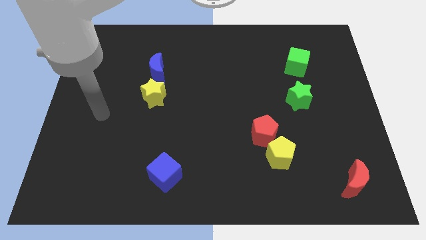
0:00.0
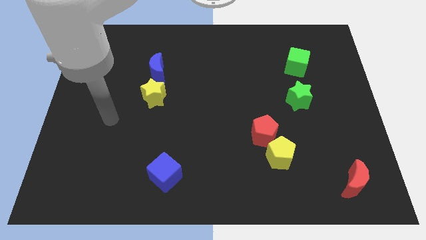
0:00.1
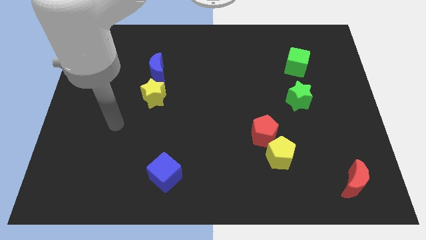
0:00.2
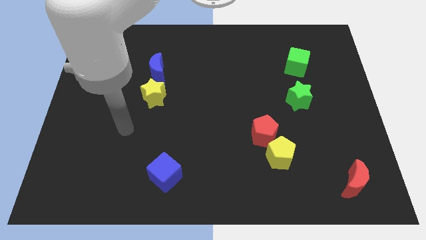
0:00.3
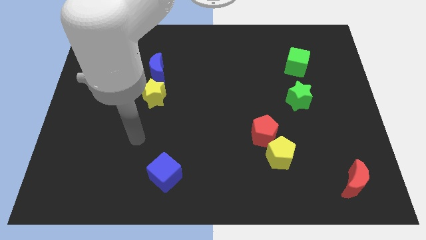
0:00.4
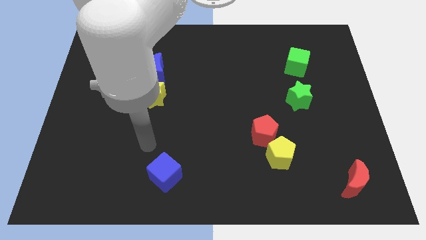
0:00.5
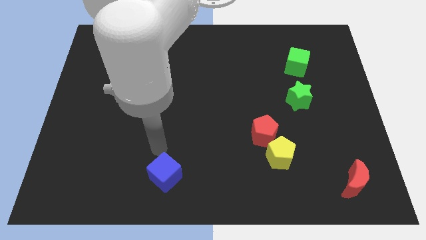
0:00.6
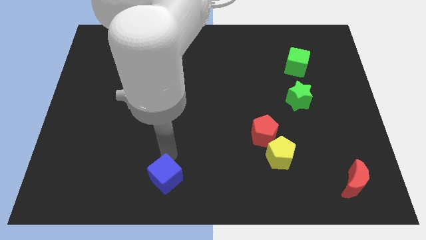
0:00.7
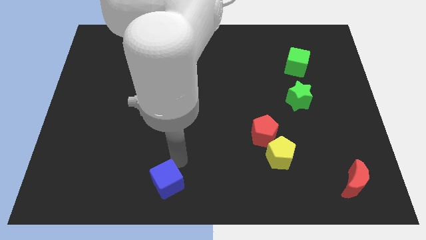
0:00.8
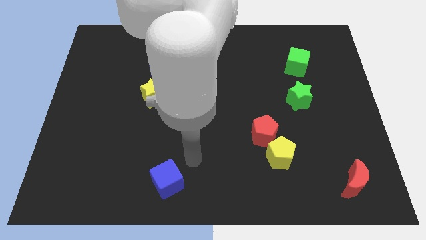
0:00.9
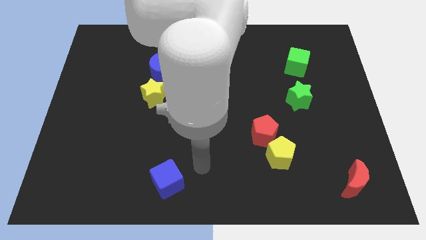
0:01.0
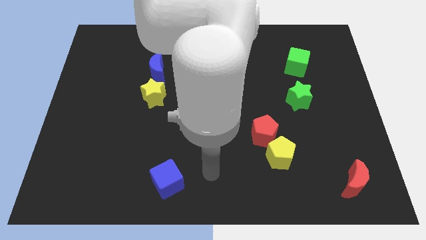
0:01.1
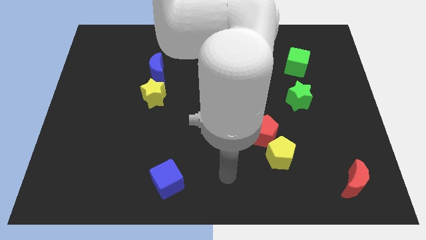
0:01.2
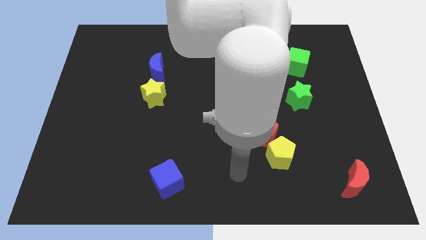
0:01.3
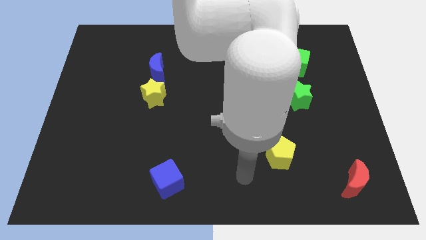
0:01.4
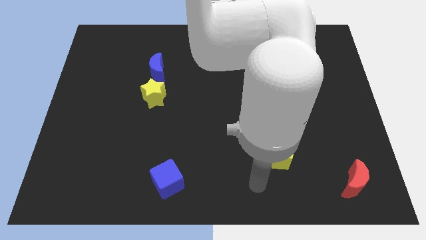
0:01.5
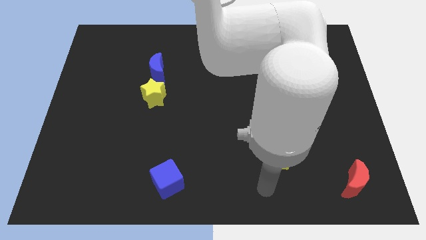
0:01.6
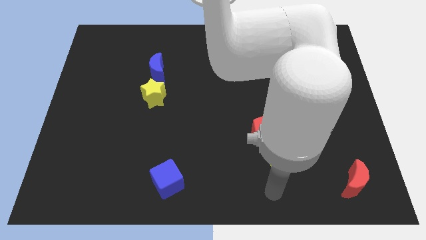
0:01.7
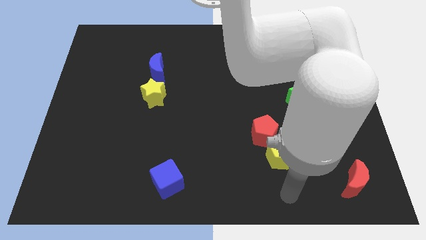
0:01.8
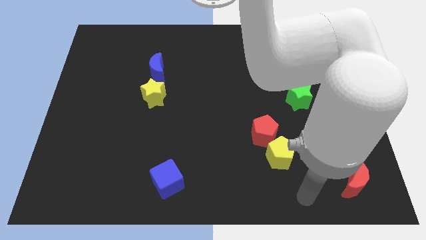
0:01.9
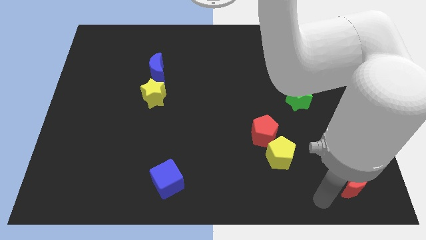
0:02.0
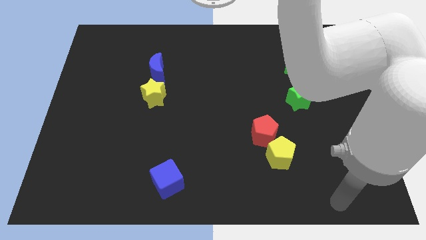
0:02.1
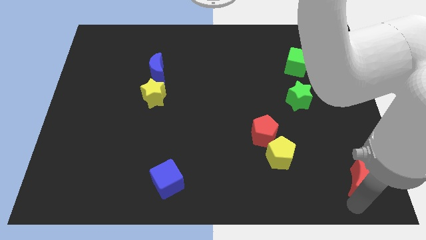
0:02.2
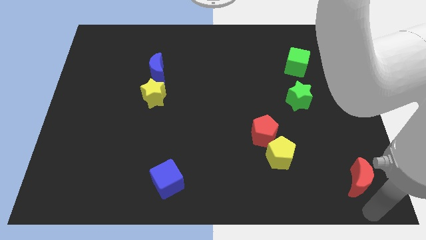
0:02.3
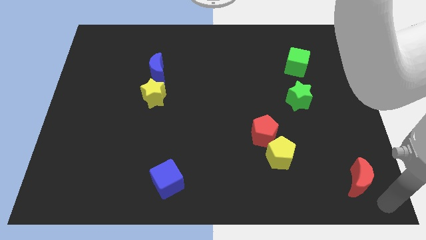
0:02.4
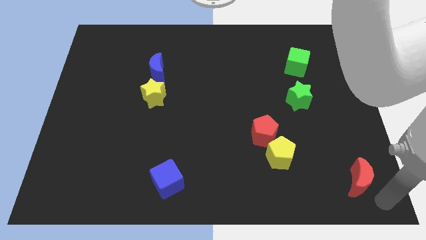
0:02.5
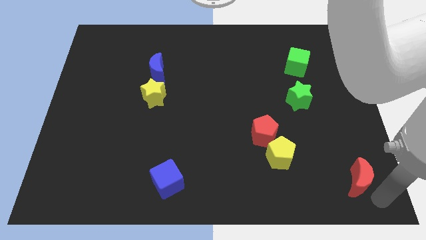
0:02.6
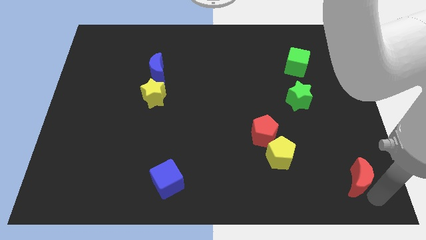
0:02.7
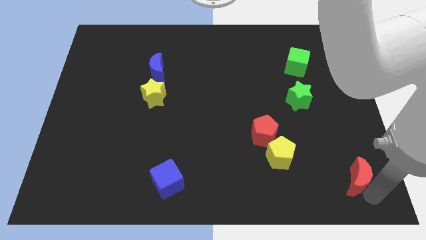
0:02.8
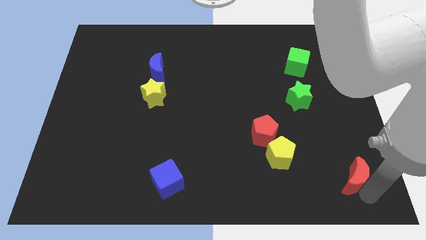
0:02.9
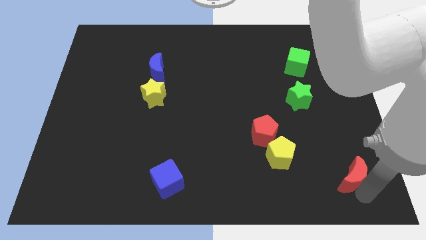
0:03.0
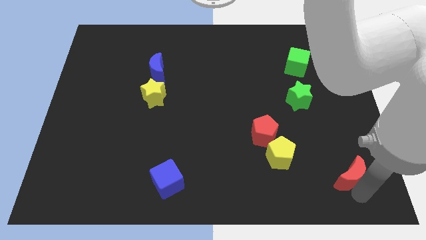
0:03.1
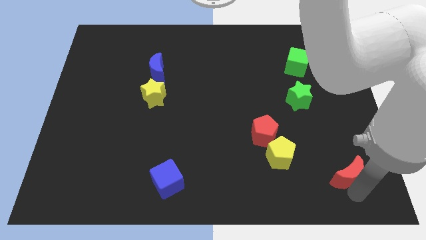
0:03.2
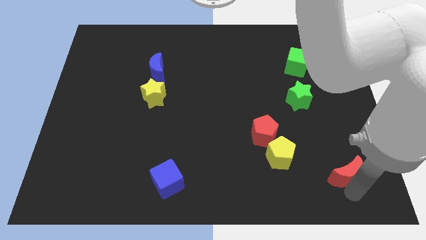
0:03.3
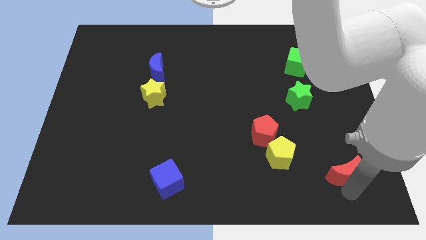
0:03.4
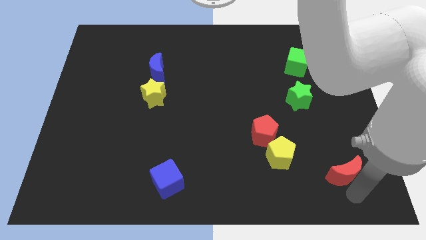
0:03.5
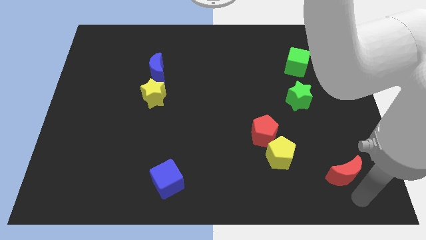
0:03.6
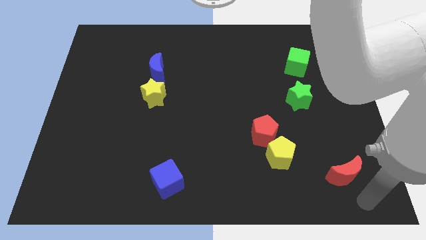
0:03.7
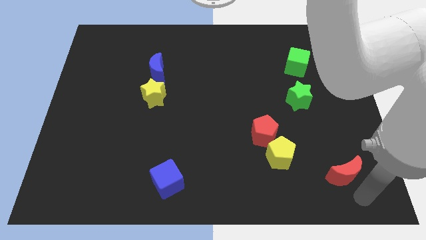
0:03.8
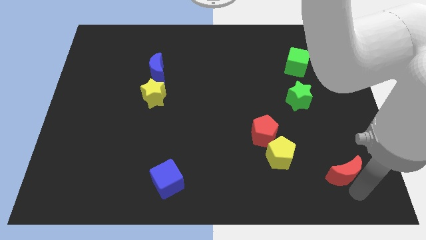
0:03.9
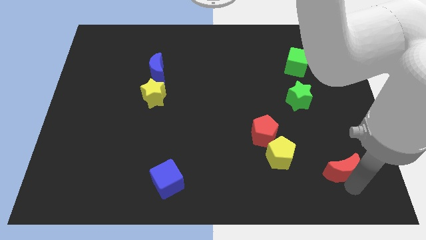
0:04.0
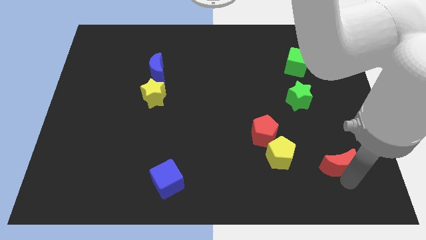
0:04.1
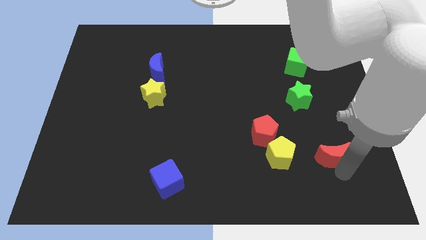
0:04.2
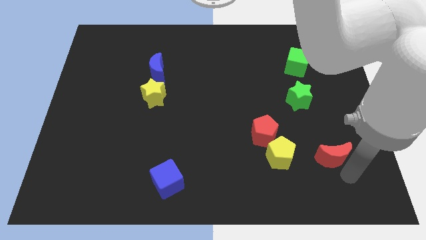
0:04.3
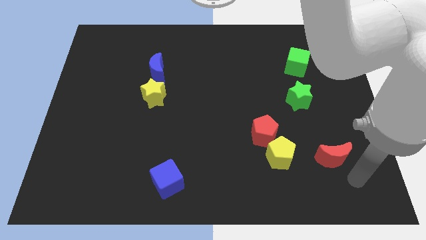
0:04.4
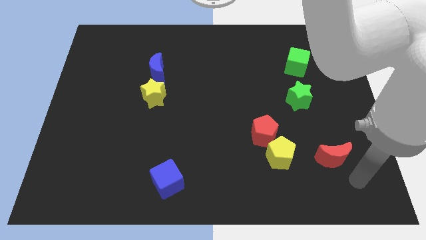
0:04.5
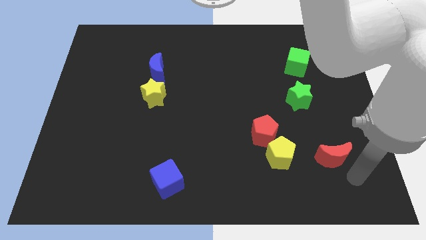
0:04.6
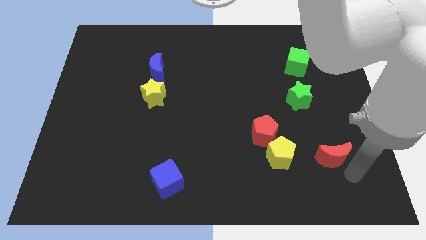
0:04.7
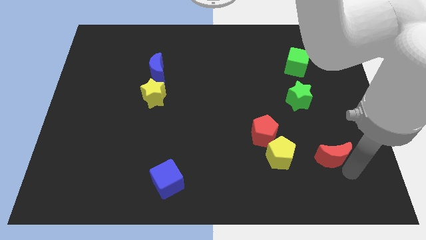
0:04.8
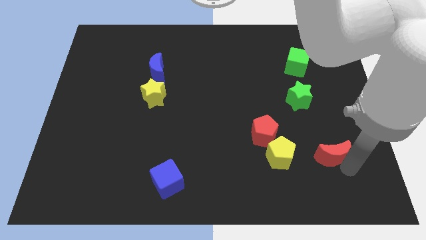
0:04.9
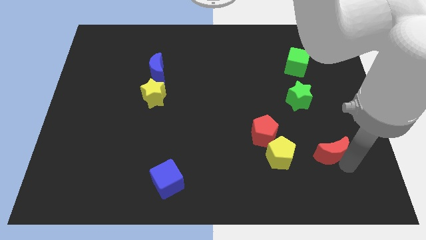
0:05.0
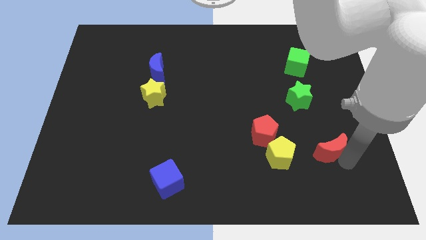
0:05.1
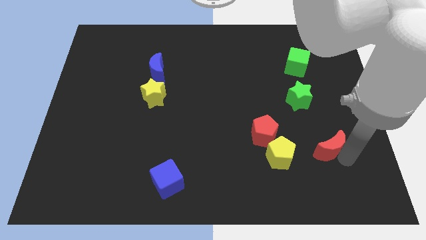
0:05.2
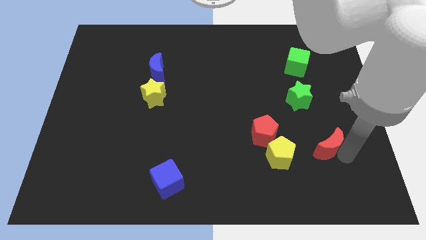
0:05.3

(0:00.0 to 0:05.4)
move the red moon to the bottom of the green star

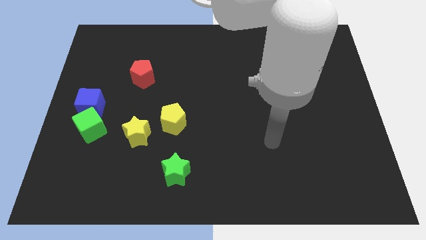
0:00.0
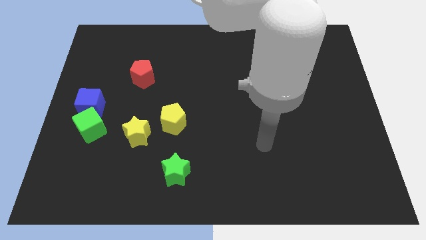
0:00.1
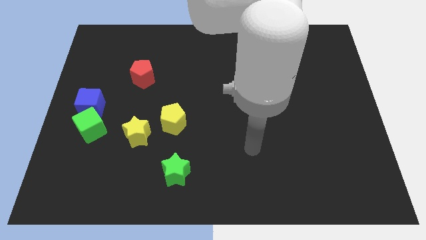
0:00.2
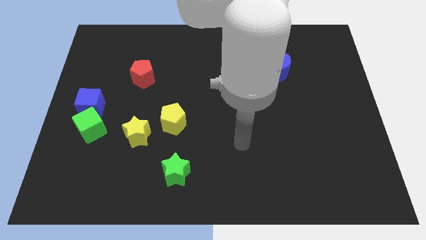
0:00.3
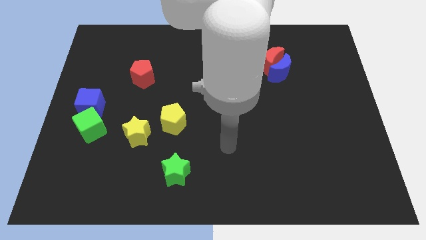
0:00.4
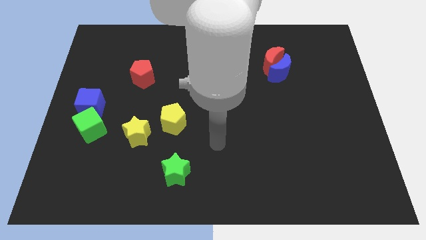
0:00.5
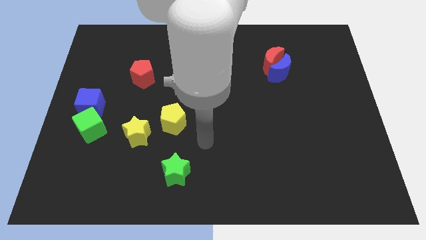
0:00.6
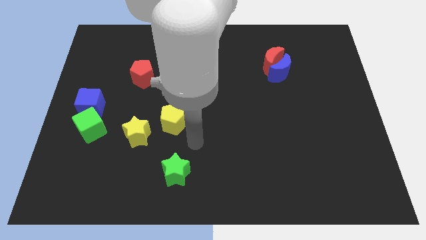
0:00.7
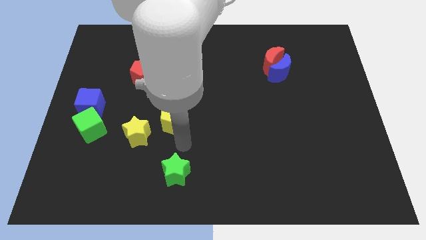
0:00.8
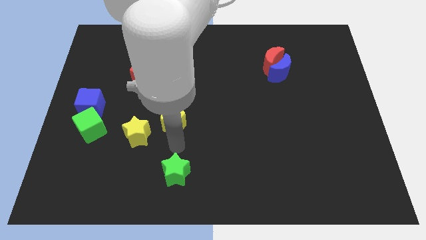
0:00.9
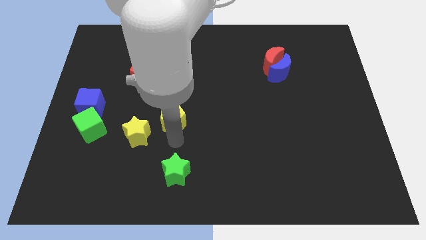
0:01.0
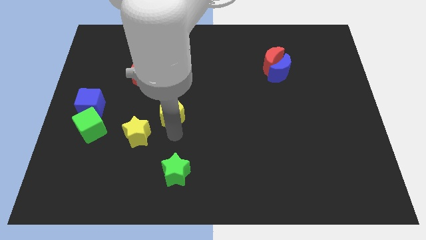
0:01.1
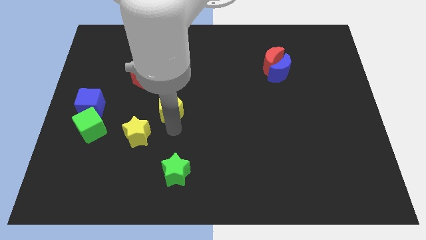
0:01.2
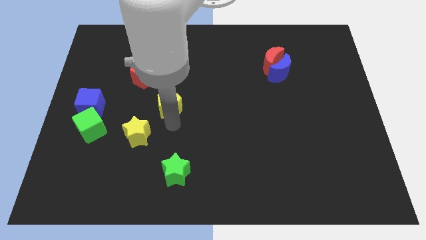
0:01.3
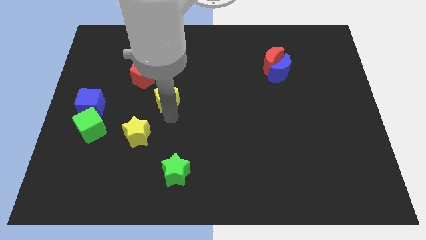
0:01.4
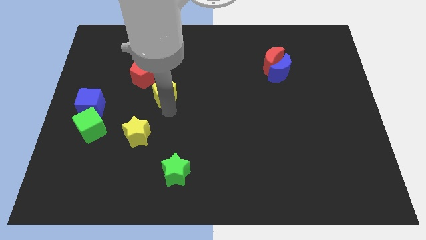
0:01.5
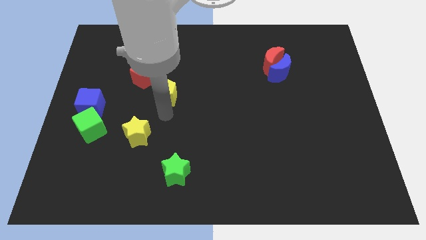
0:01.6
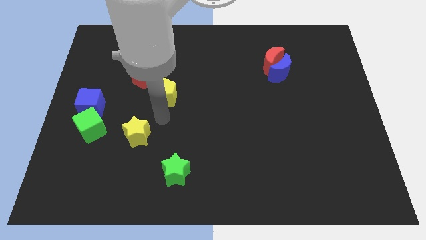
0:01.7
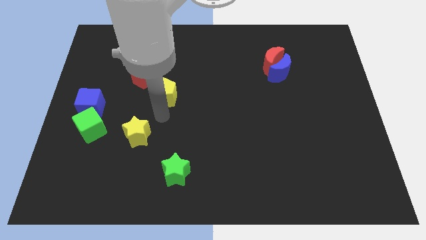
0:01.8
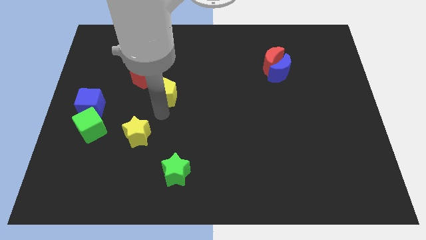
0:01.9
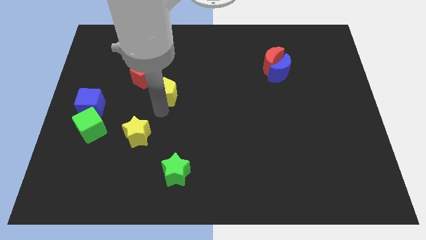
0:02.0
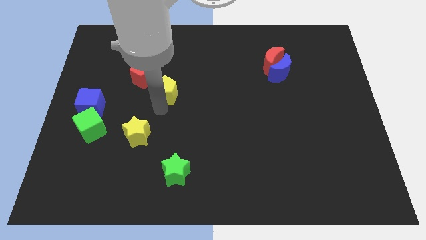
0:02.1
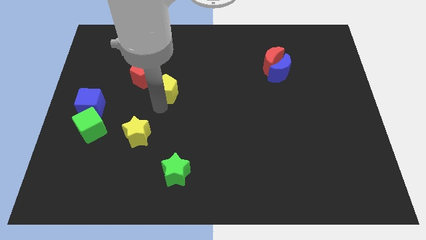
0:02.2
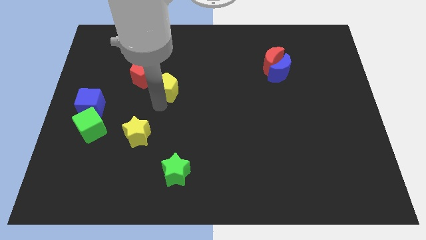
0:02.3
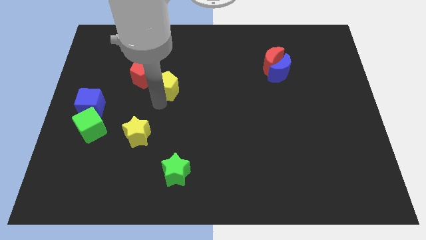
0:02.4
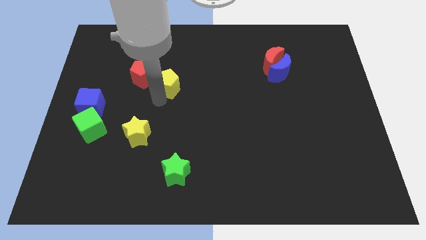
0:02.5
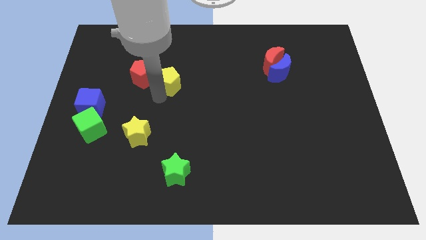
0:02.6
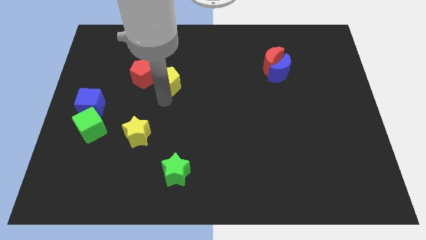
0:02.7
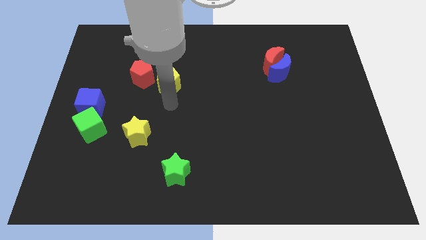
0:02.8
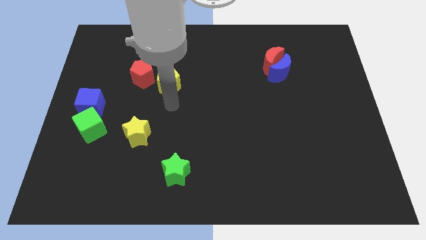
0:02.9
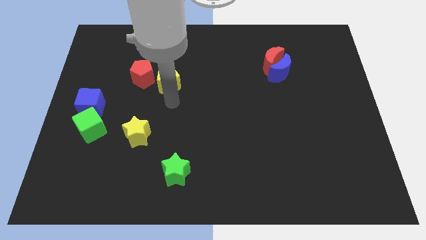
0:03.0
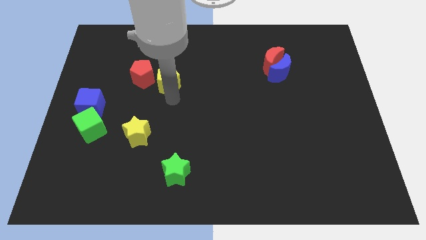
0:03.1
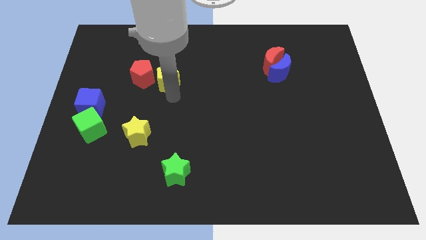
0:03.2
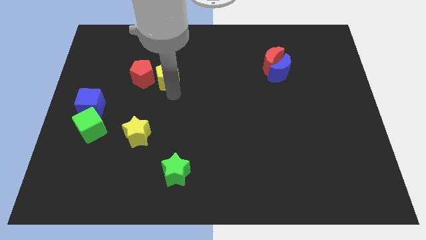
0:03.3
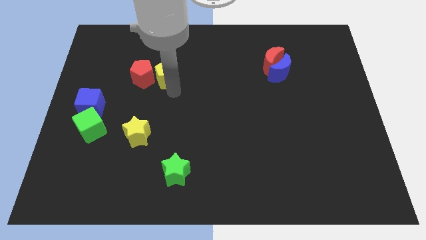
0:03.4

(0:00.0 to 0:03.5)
slide the yellow pentagon to the top right side of the red pentagon
